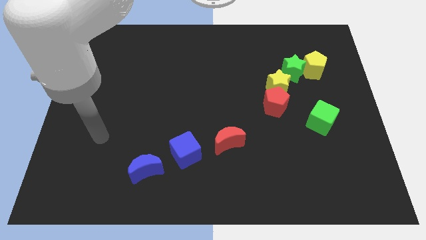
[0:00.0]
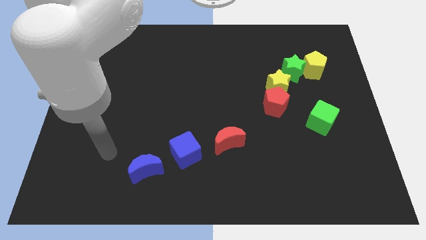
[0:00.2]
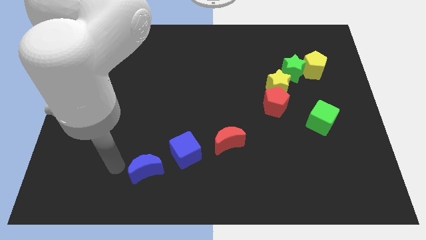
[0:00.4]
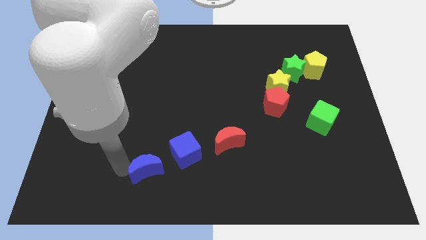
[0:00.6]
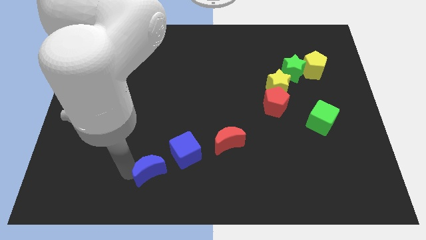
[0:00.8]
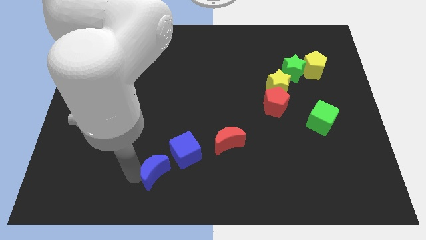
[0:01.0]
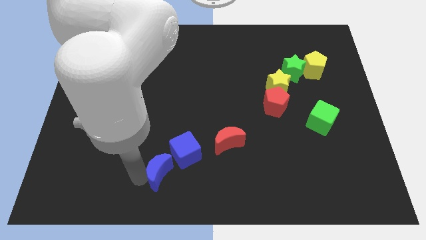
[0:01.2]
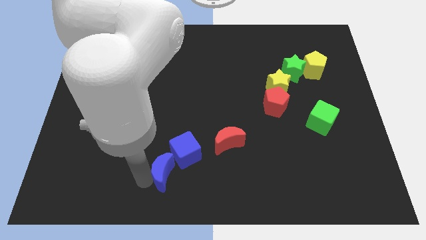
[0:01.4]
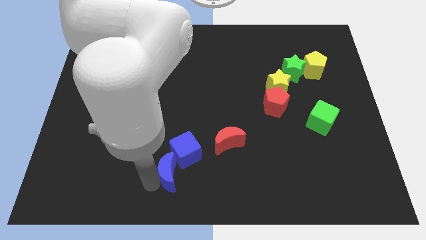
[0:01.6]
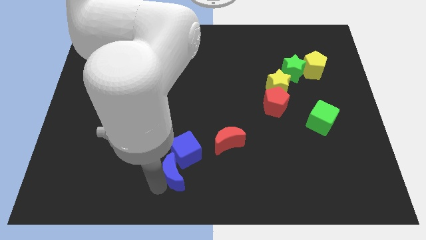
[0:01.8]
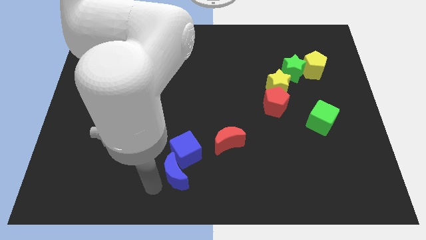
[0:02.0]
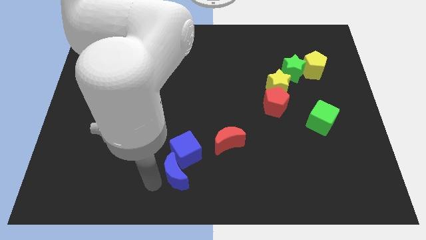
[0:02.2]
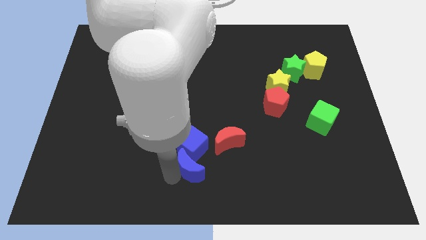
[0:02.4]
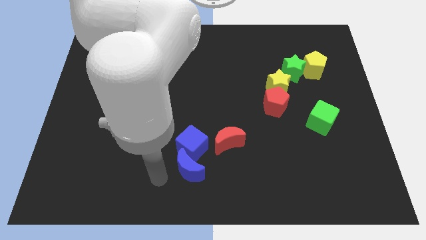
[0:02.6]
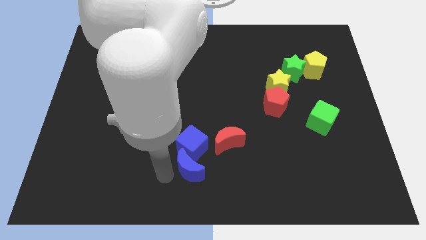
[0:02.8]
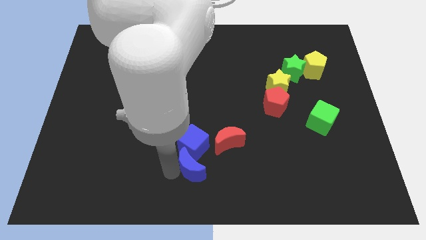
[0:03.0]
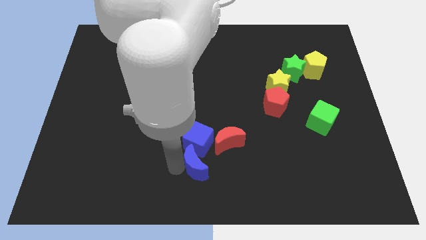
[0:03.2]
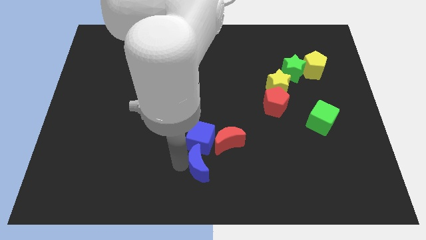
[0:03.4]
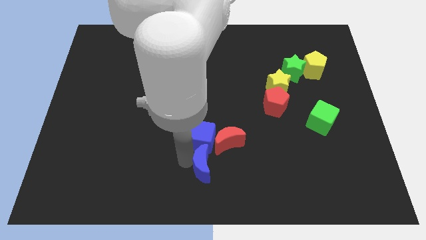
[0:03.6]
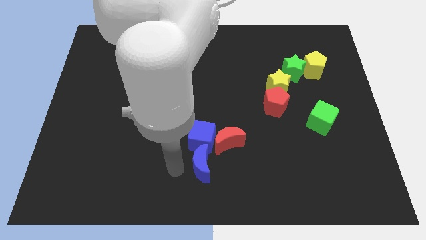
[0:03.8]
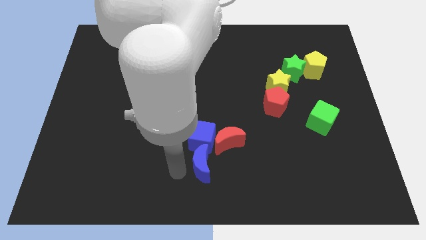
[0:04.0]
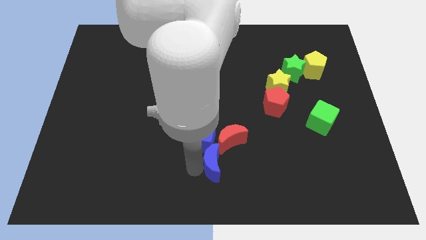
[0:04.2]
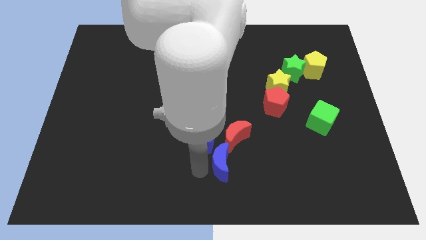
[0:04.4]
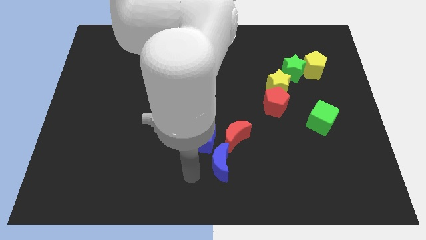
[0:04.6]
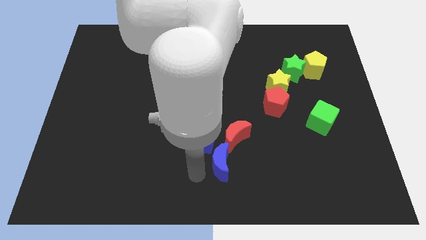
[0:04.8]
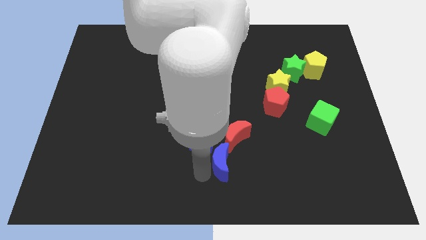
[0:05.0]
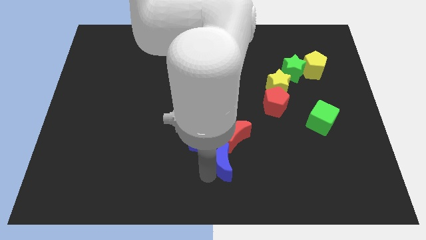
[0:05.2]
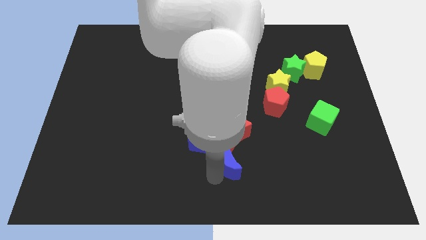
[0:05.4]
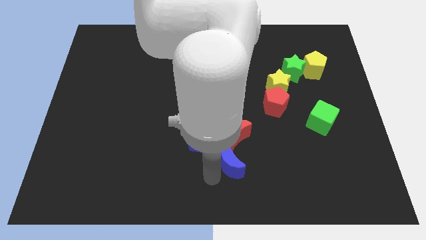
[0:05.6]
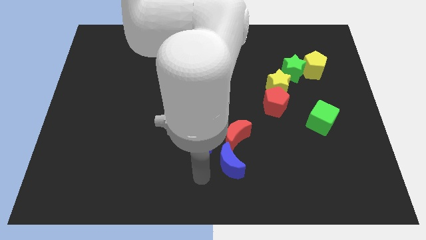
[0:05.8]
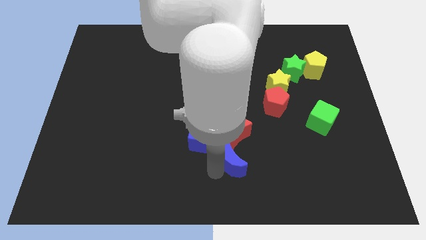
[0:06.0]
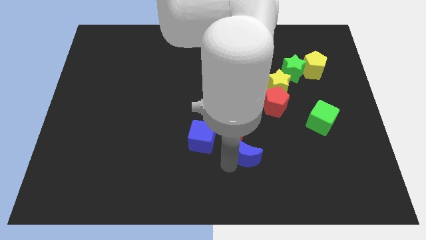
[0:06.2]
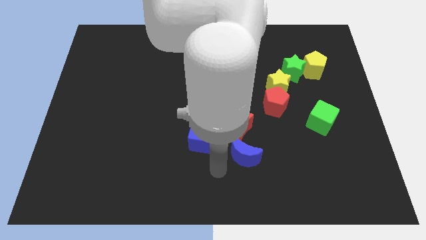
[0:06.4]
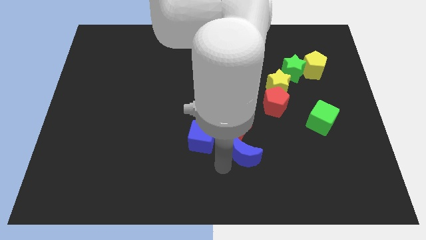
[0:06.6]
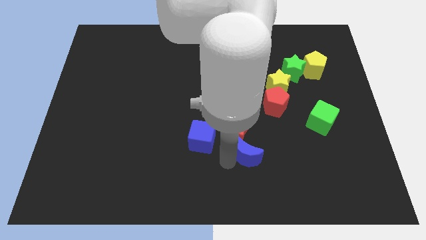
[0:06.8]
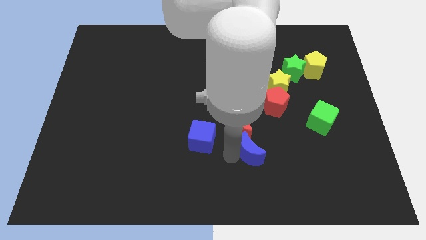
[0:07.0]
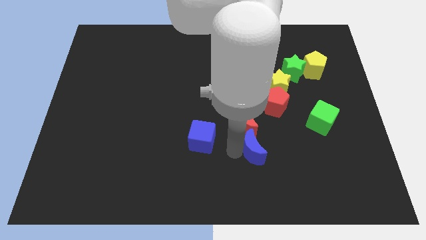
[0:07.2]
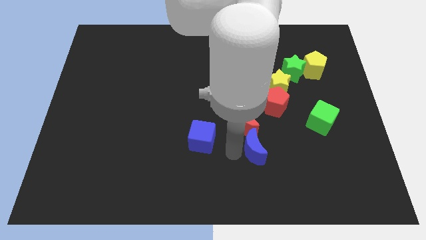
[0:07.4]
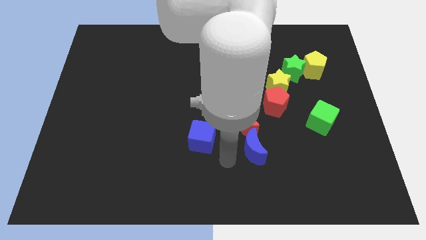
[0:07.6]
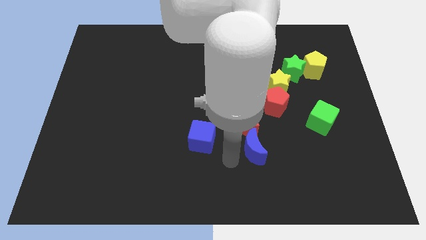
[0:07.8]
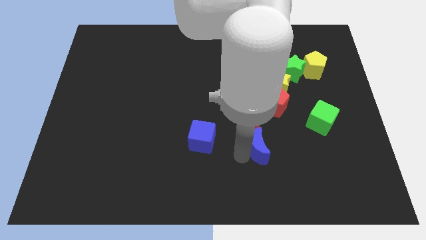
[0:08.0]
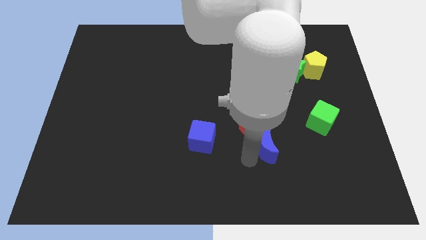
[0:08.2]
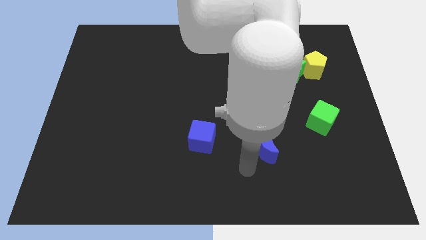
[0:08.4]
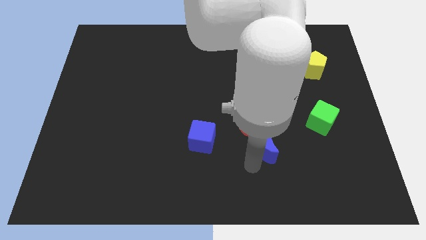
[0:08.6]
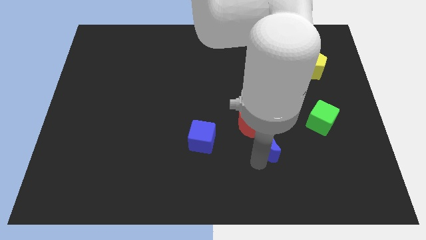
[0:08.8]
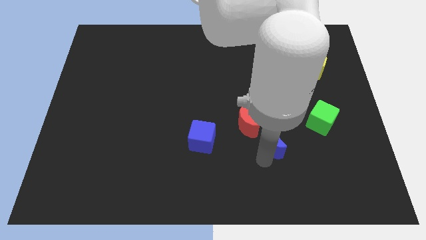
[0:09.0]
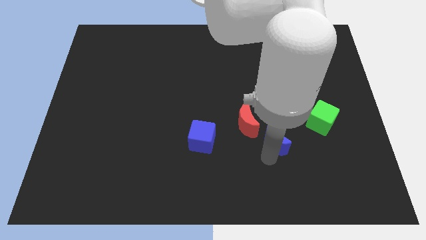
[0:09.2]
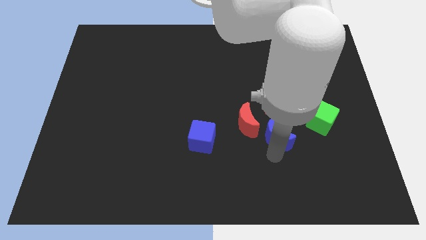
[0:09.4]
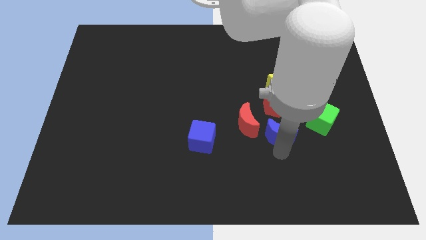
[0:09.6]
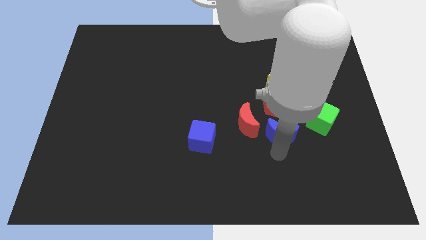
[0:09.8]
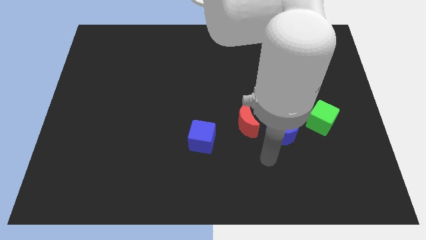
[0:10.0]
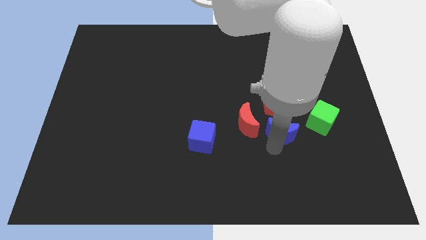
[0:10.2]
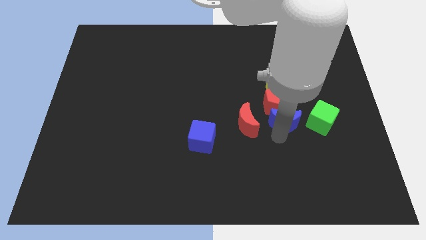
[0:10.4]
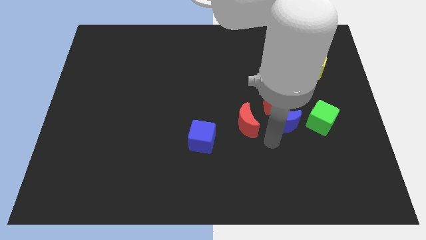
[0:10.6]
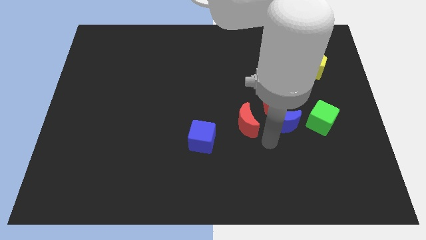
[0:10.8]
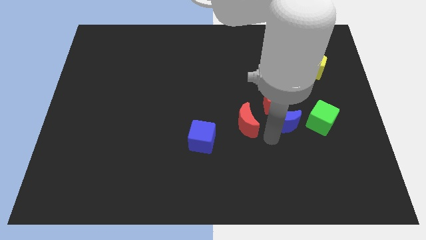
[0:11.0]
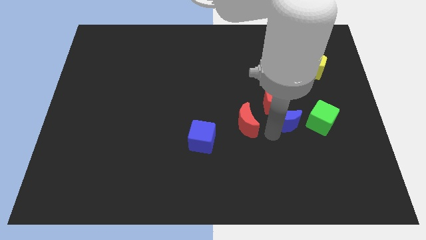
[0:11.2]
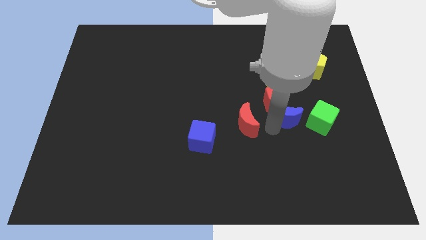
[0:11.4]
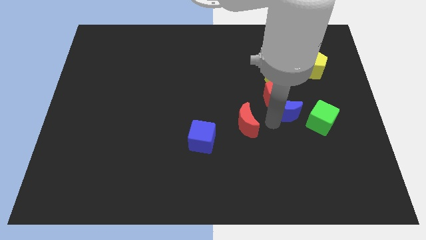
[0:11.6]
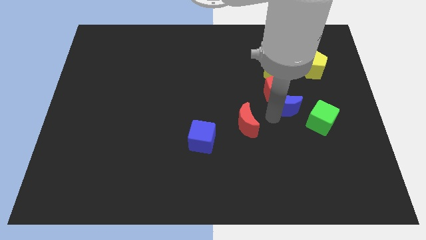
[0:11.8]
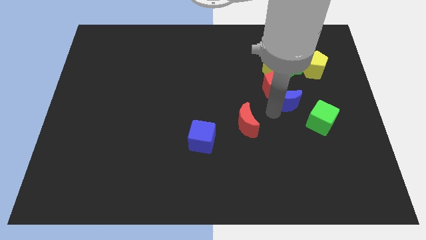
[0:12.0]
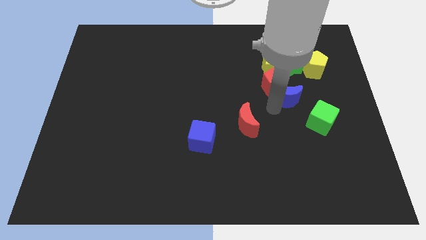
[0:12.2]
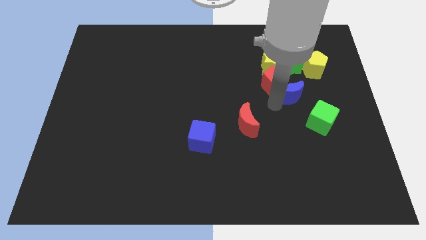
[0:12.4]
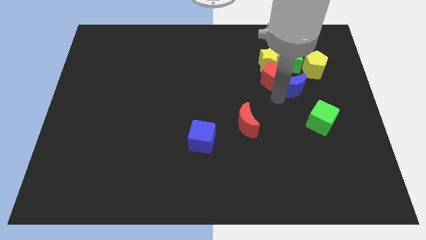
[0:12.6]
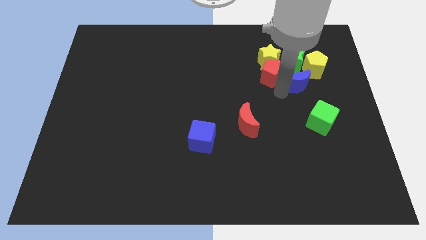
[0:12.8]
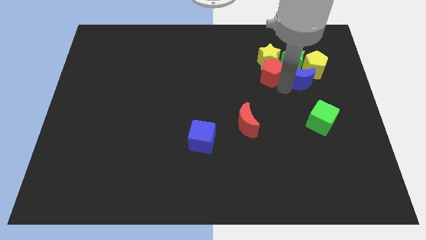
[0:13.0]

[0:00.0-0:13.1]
push the blue moon next to the yellow pentagon
